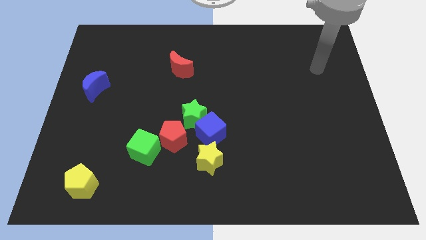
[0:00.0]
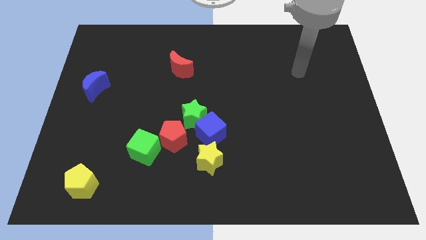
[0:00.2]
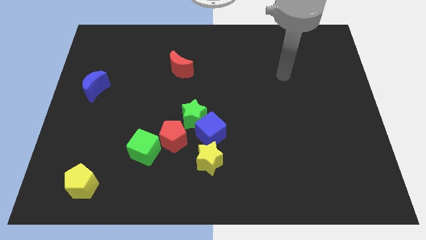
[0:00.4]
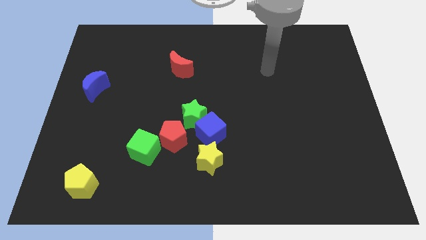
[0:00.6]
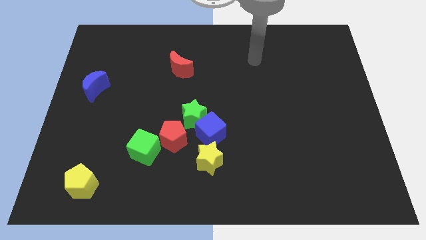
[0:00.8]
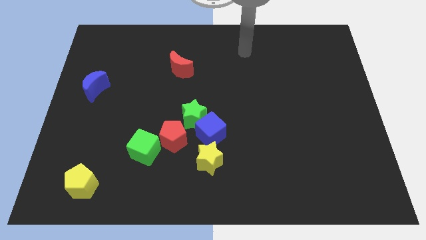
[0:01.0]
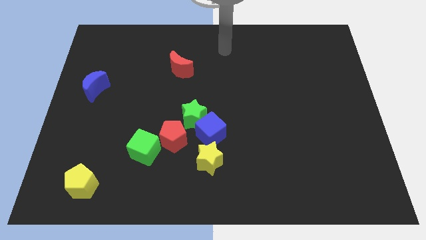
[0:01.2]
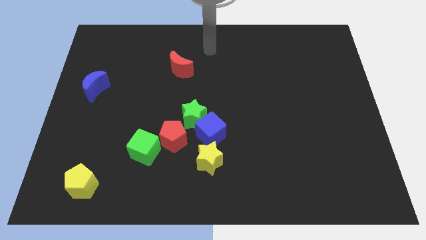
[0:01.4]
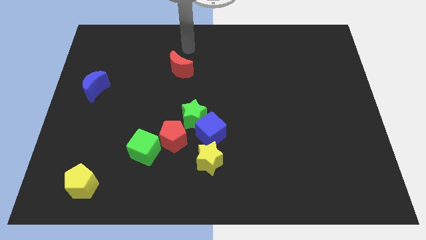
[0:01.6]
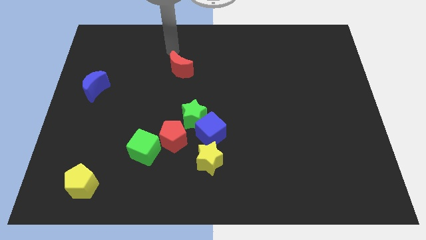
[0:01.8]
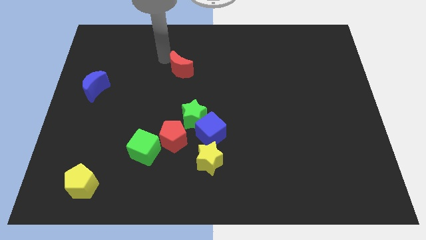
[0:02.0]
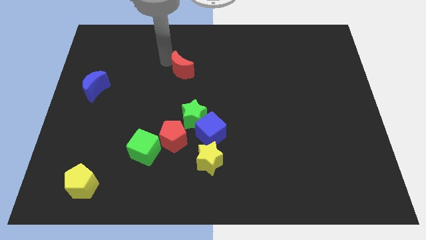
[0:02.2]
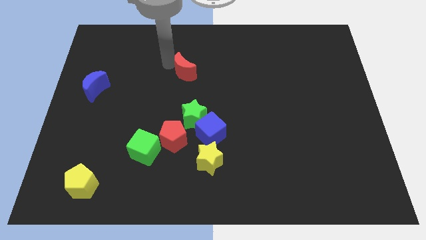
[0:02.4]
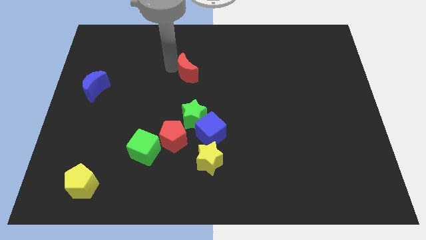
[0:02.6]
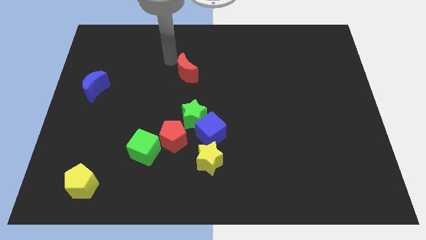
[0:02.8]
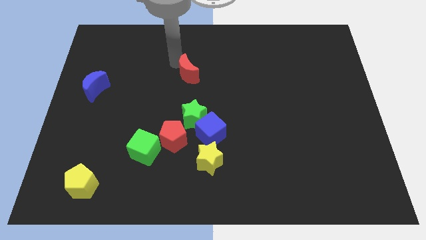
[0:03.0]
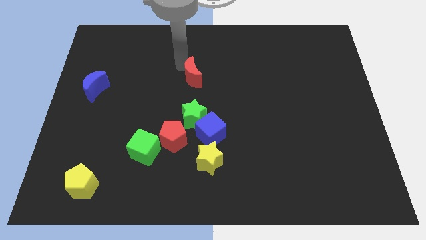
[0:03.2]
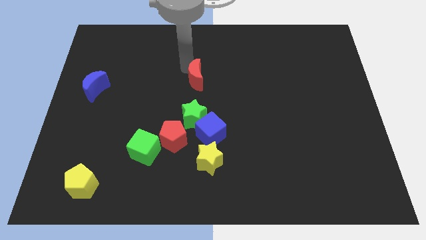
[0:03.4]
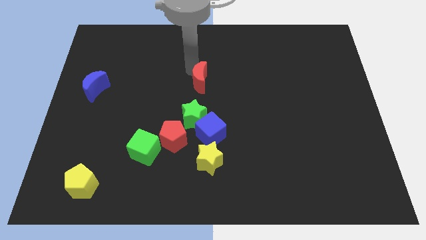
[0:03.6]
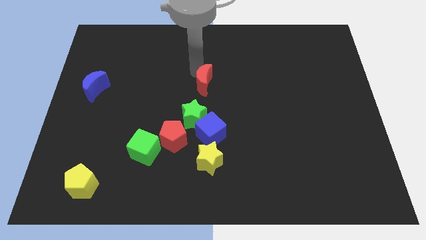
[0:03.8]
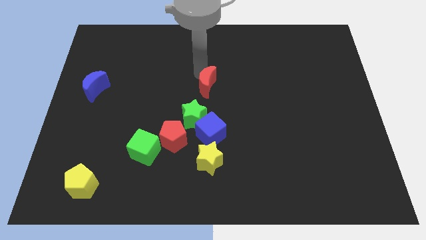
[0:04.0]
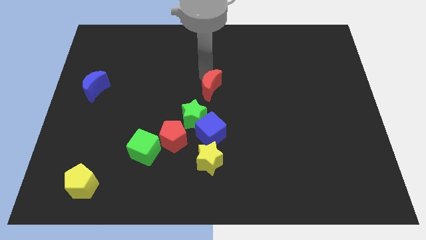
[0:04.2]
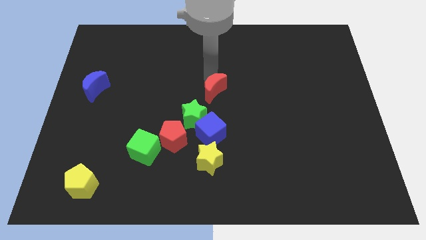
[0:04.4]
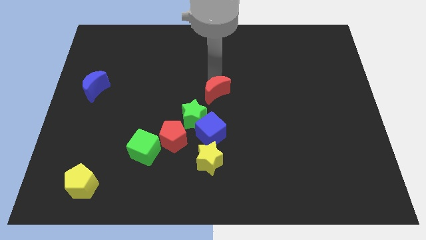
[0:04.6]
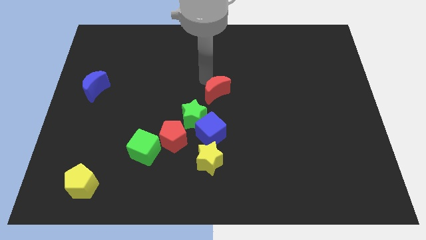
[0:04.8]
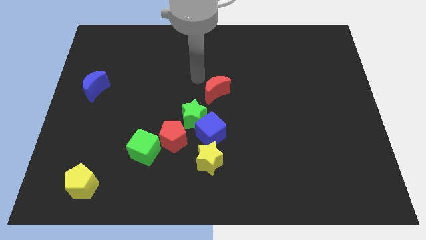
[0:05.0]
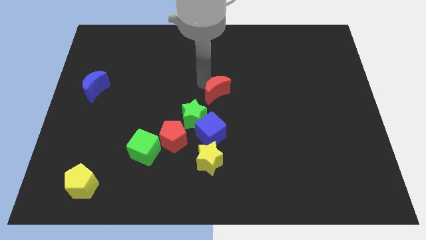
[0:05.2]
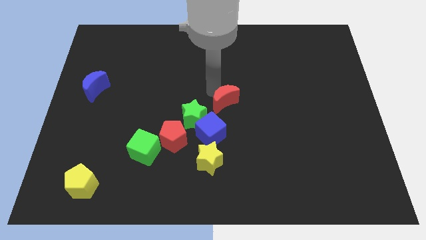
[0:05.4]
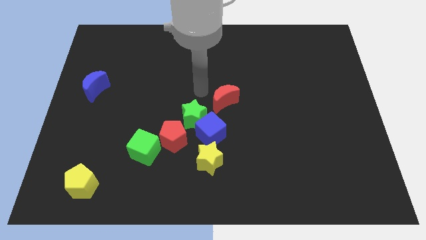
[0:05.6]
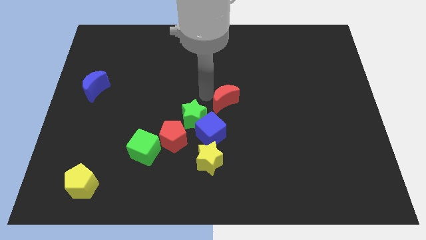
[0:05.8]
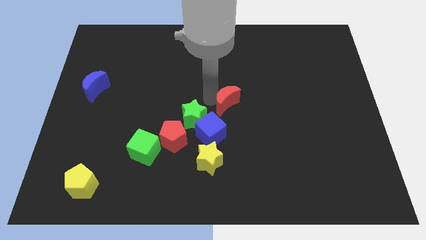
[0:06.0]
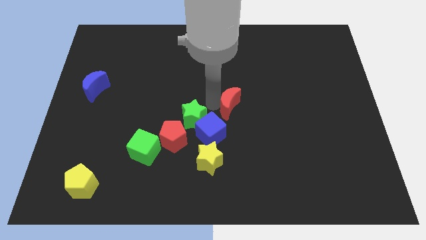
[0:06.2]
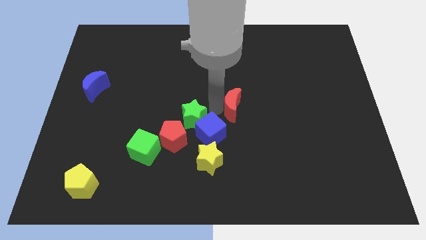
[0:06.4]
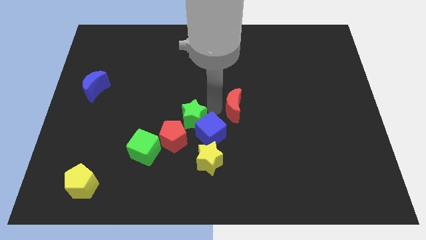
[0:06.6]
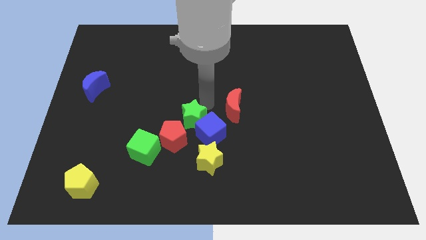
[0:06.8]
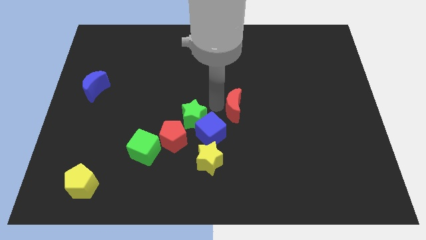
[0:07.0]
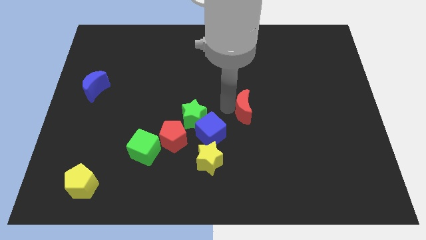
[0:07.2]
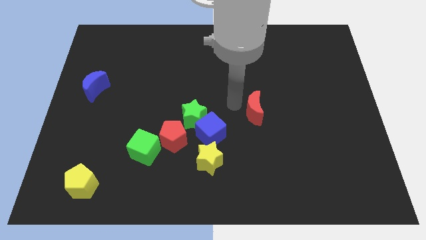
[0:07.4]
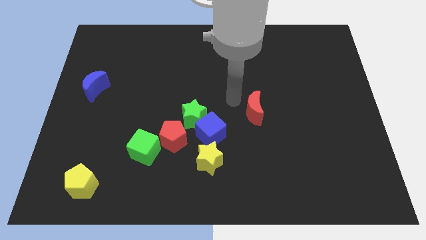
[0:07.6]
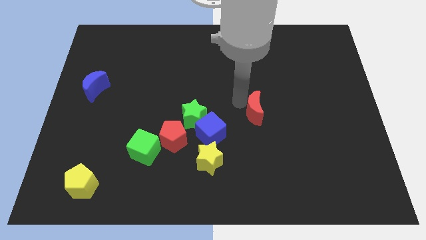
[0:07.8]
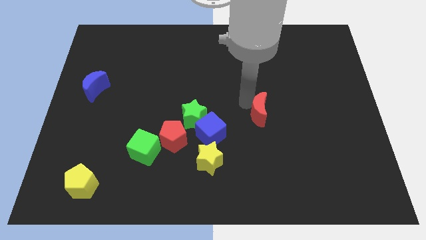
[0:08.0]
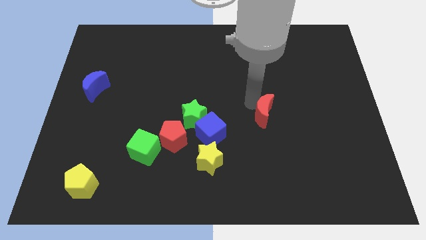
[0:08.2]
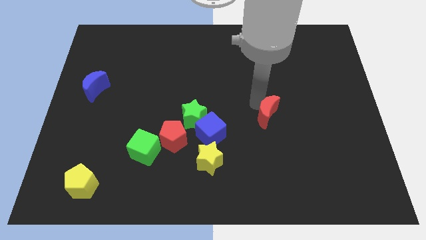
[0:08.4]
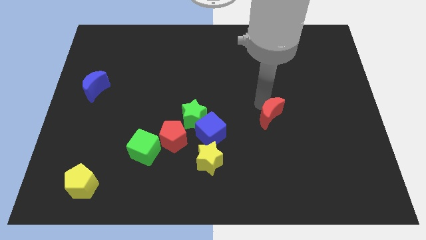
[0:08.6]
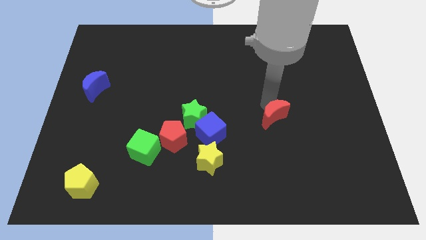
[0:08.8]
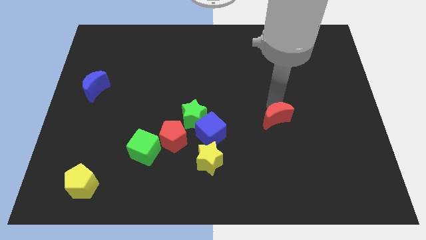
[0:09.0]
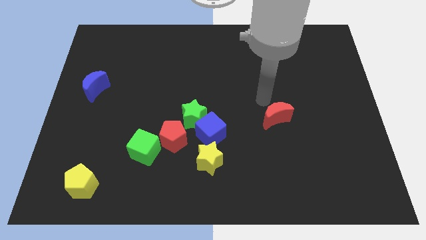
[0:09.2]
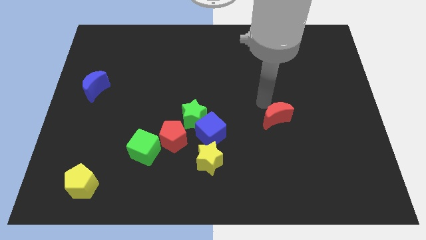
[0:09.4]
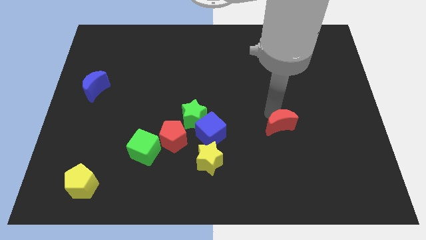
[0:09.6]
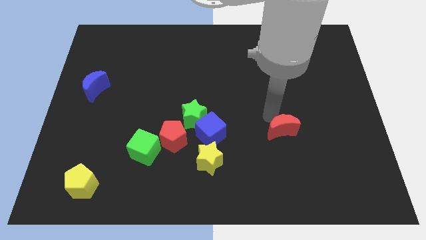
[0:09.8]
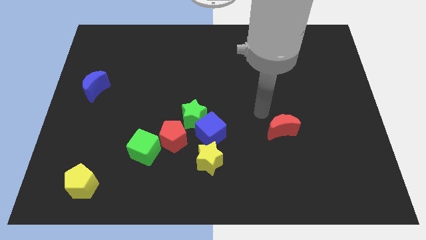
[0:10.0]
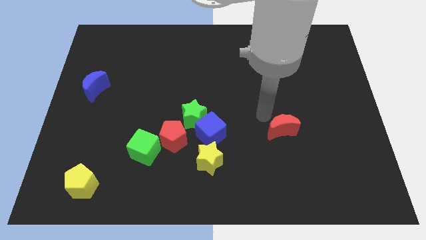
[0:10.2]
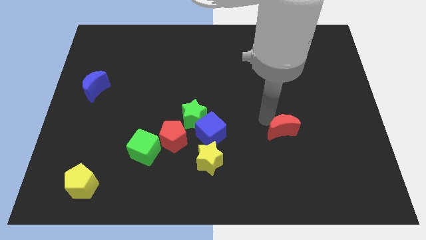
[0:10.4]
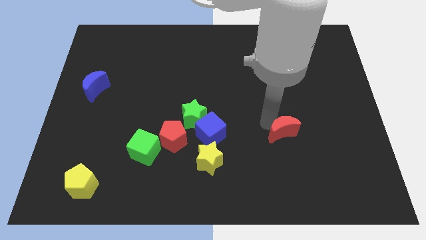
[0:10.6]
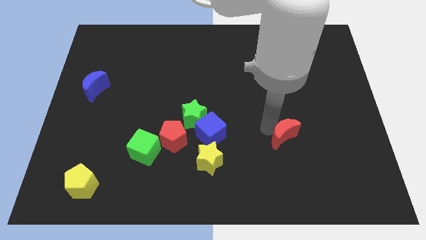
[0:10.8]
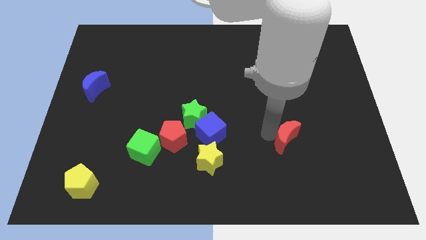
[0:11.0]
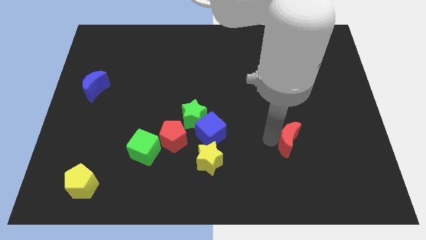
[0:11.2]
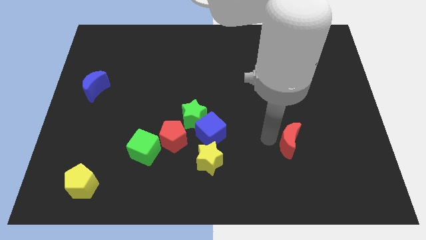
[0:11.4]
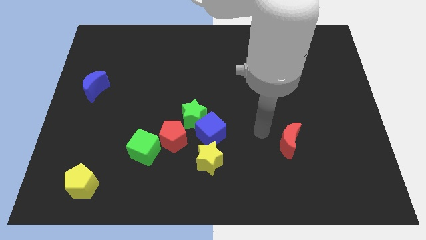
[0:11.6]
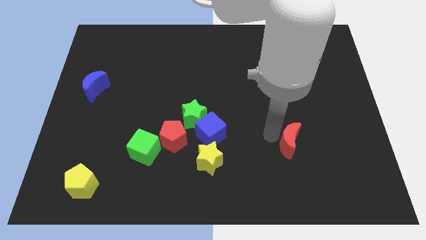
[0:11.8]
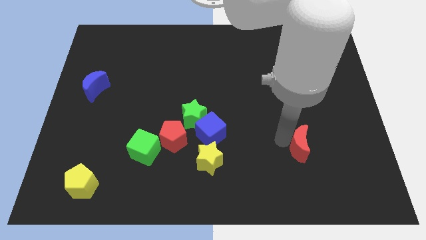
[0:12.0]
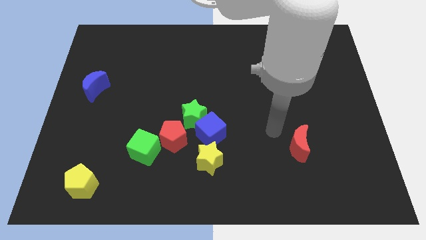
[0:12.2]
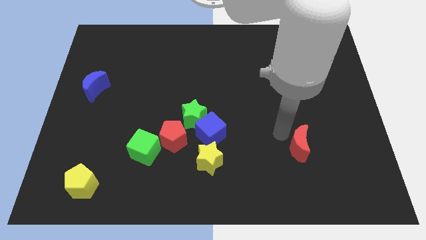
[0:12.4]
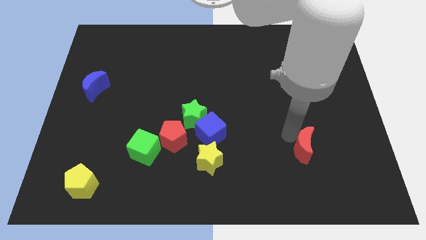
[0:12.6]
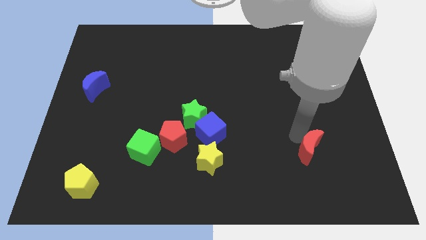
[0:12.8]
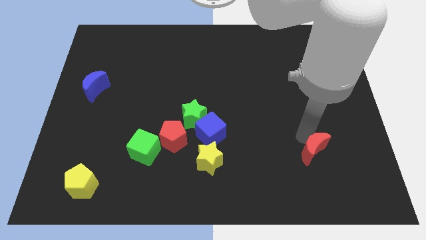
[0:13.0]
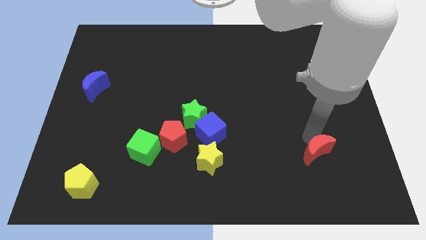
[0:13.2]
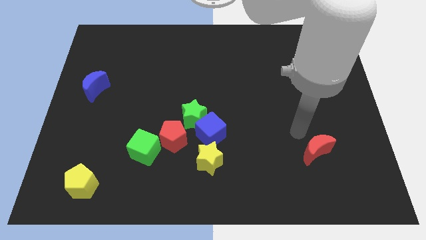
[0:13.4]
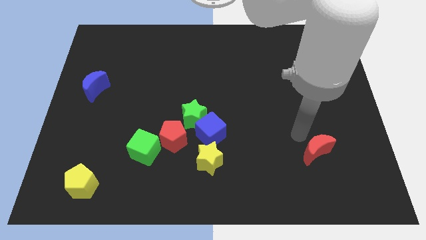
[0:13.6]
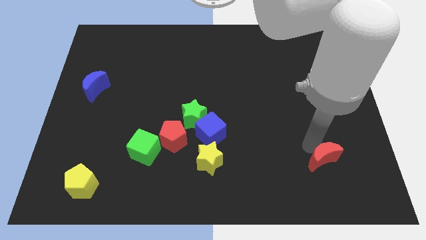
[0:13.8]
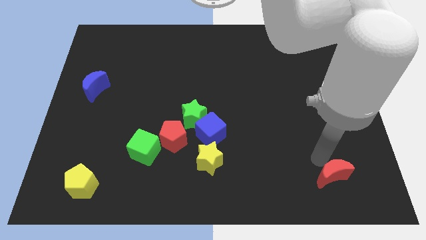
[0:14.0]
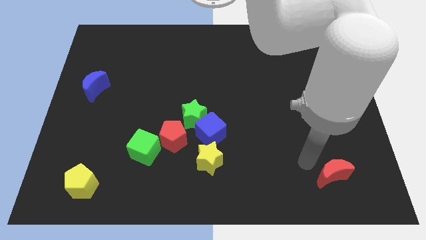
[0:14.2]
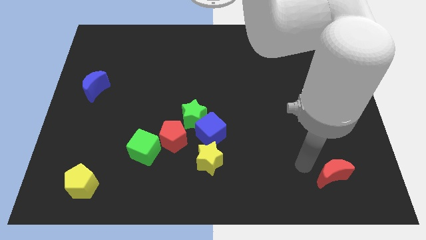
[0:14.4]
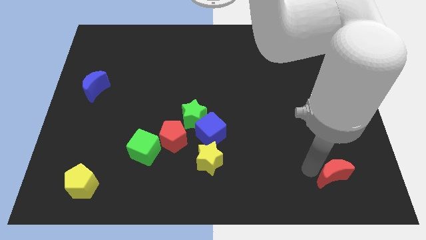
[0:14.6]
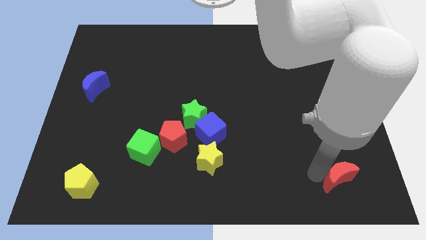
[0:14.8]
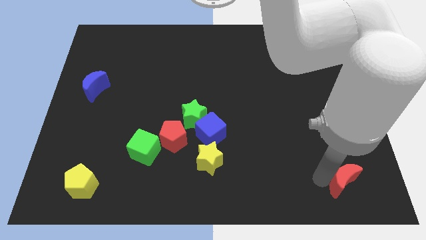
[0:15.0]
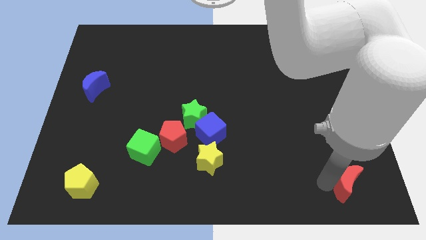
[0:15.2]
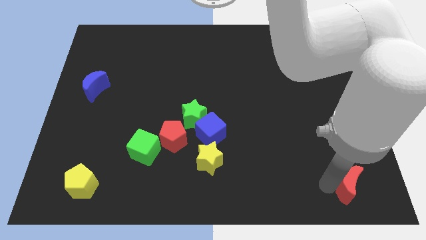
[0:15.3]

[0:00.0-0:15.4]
push the red moon to the bottom right of the board
